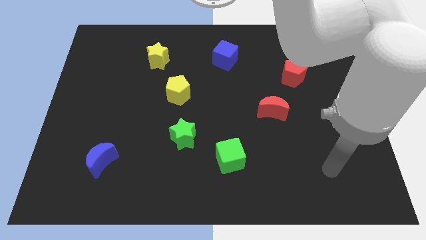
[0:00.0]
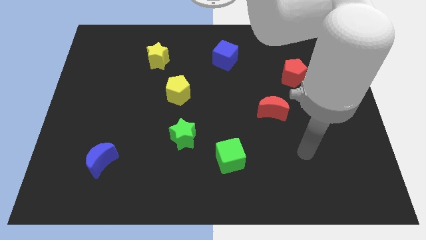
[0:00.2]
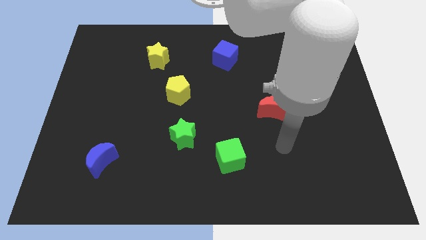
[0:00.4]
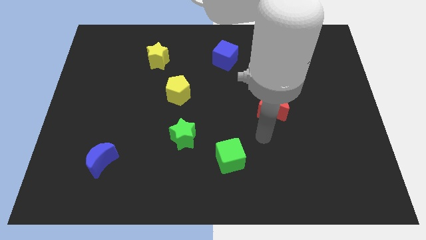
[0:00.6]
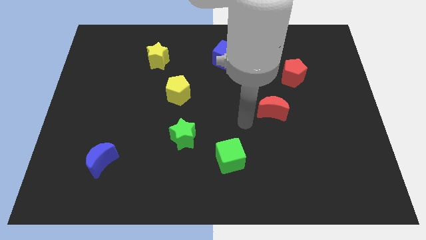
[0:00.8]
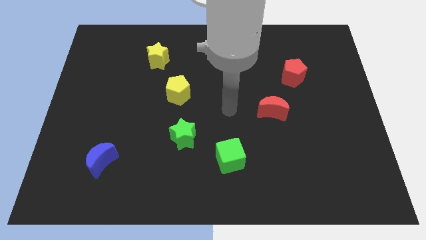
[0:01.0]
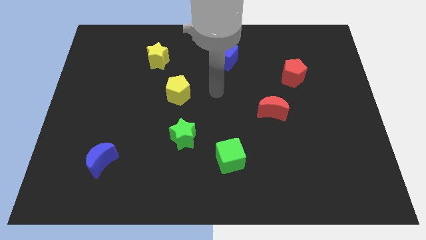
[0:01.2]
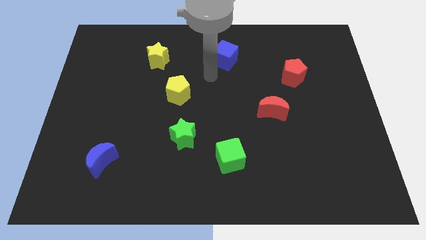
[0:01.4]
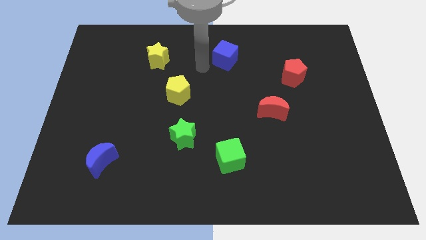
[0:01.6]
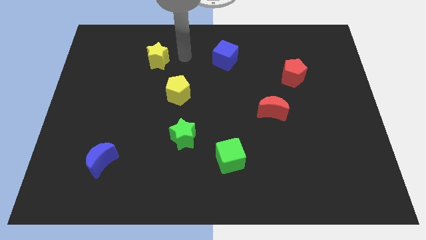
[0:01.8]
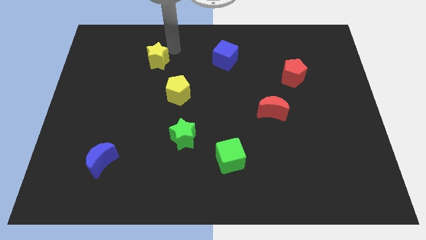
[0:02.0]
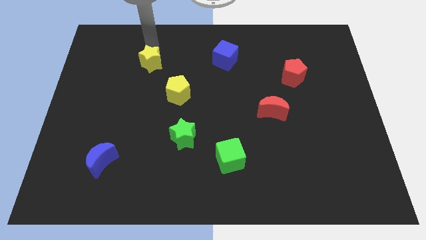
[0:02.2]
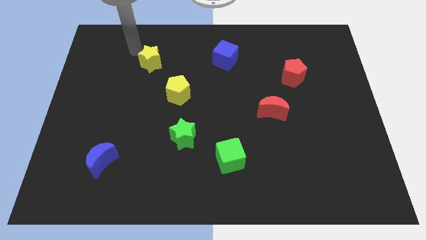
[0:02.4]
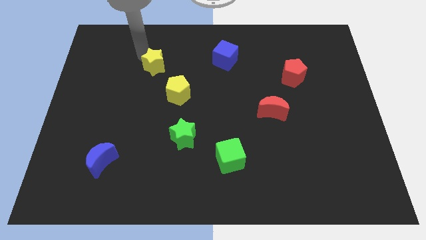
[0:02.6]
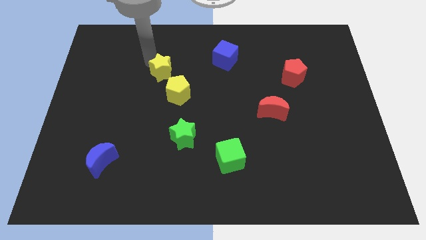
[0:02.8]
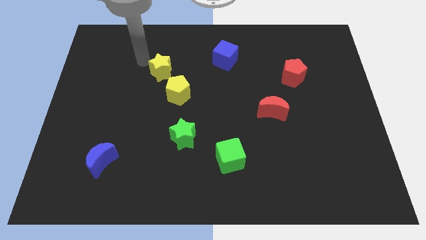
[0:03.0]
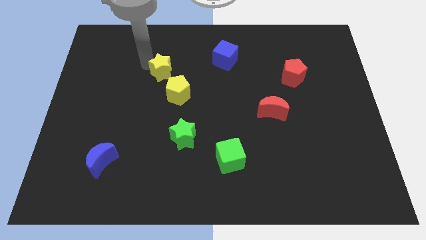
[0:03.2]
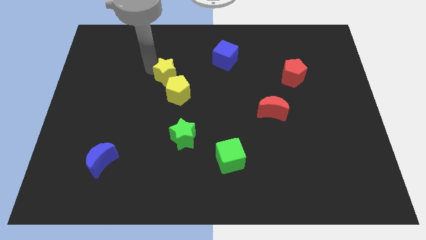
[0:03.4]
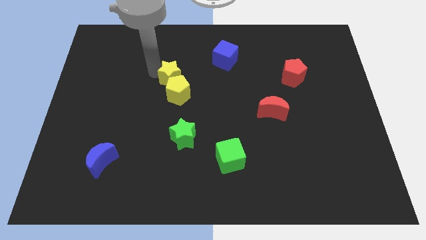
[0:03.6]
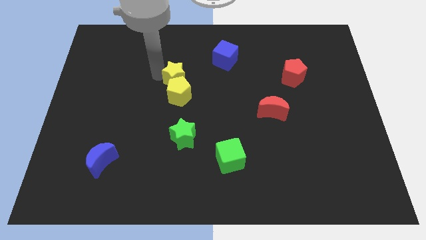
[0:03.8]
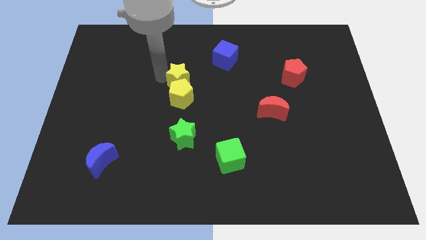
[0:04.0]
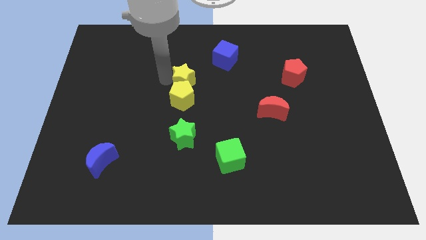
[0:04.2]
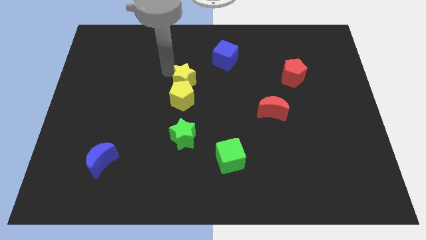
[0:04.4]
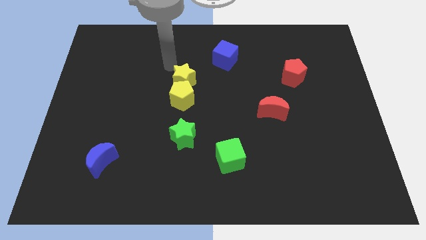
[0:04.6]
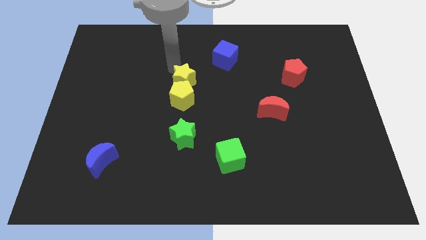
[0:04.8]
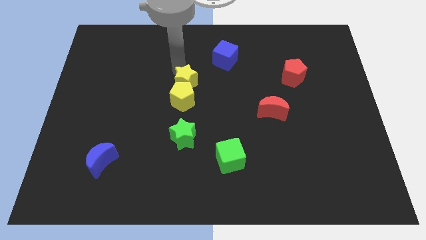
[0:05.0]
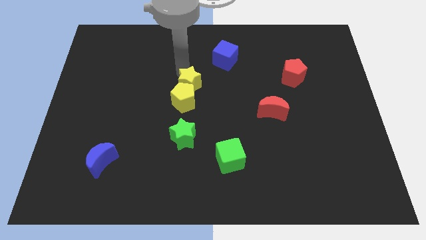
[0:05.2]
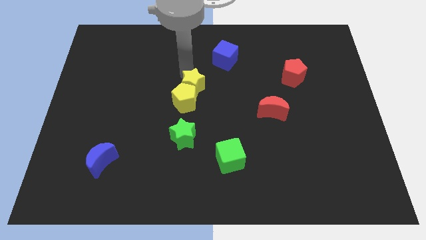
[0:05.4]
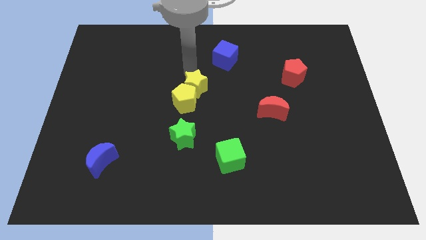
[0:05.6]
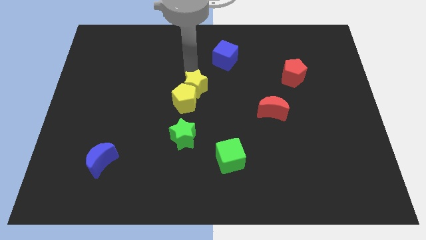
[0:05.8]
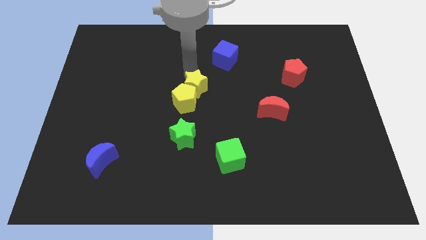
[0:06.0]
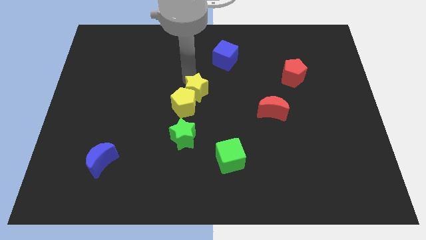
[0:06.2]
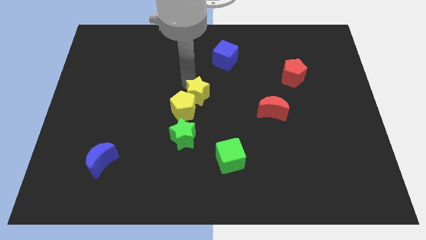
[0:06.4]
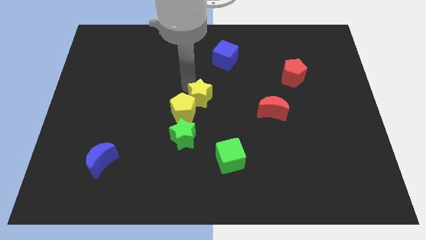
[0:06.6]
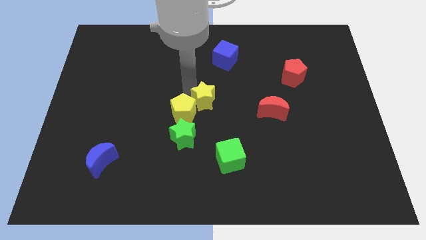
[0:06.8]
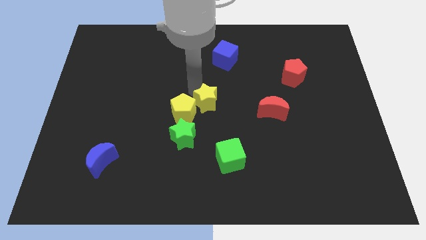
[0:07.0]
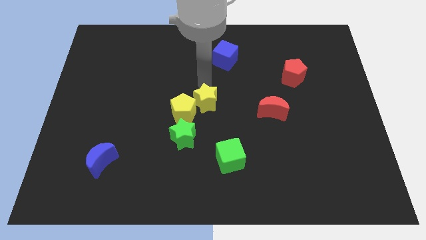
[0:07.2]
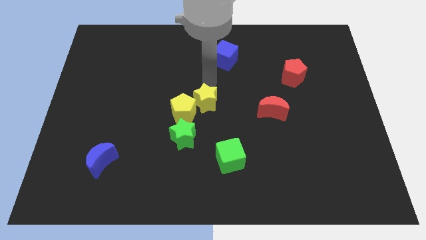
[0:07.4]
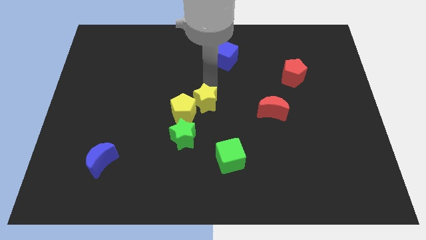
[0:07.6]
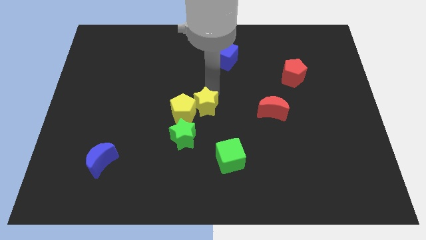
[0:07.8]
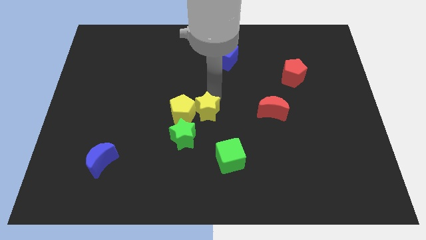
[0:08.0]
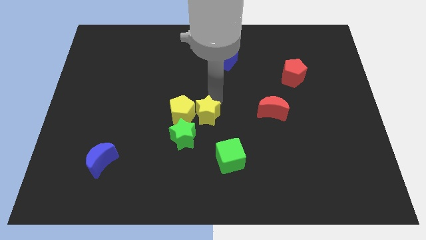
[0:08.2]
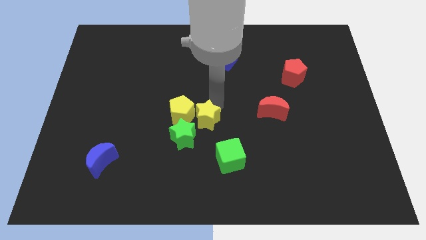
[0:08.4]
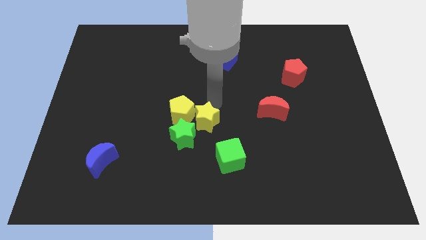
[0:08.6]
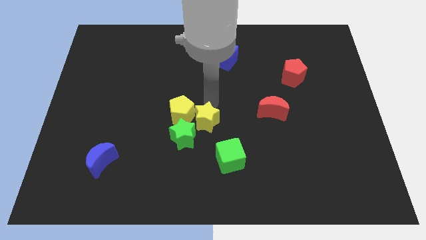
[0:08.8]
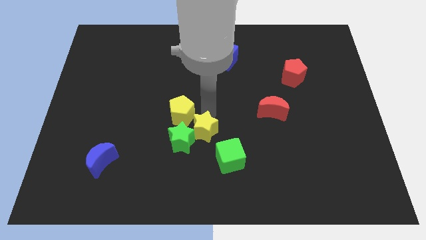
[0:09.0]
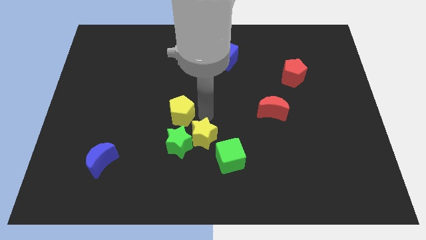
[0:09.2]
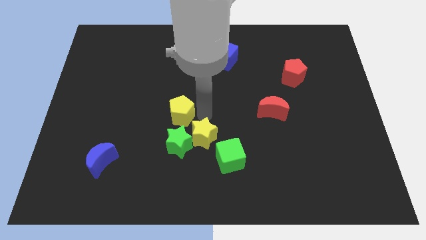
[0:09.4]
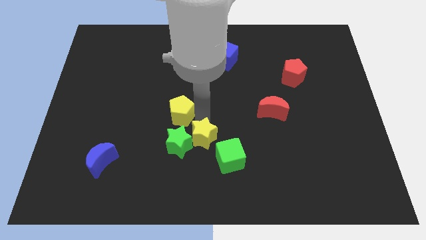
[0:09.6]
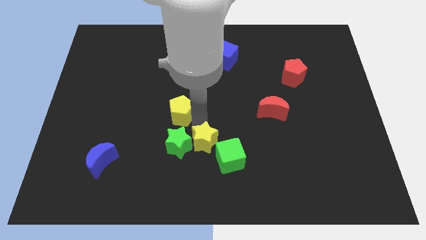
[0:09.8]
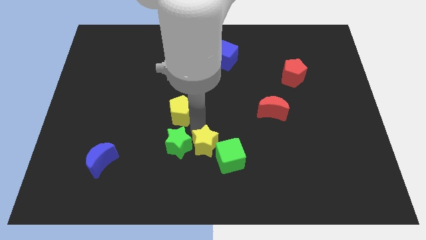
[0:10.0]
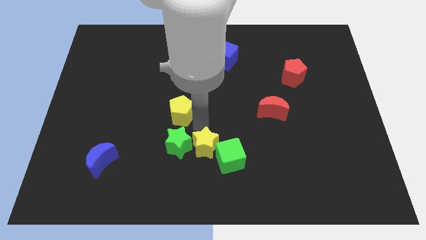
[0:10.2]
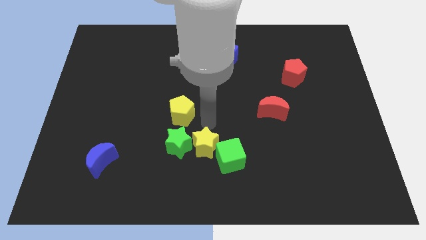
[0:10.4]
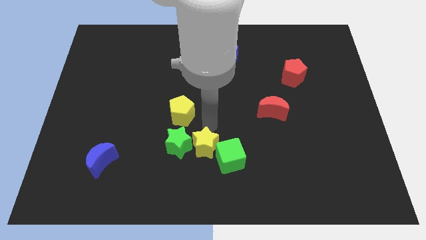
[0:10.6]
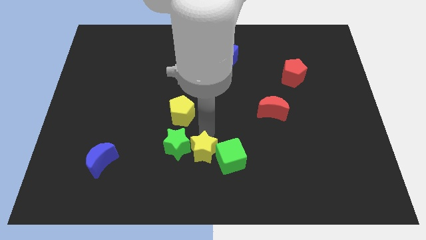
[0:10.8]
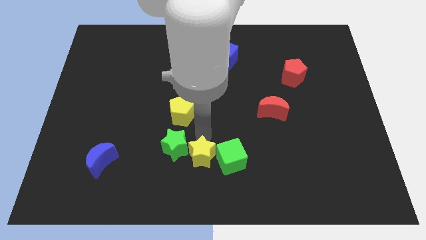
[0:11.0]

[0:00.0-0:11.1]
put the yellow star to the bottom side
